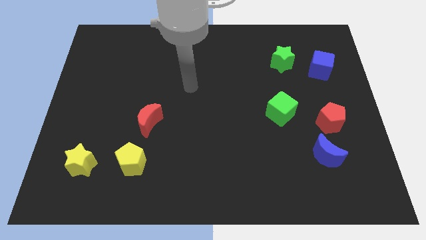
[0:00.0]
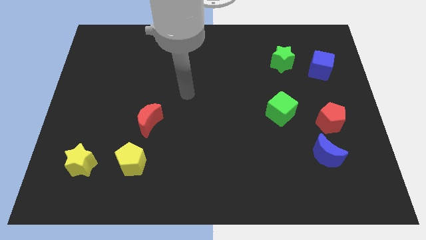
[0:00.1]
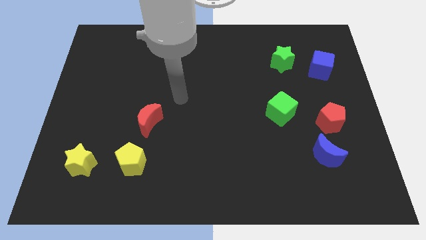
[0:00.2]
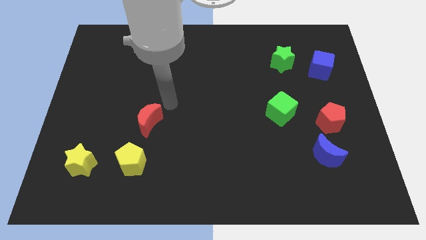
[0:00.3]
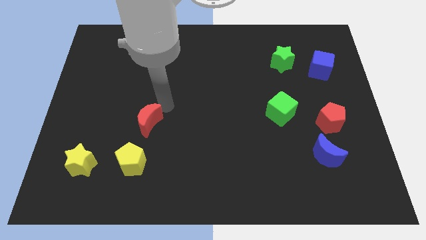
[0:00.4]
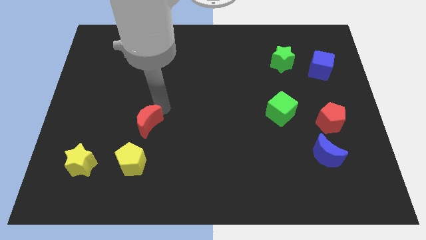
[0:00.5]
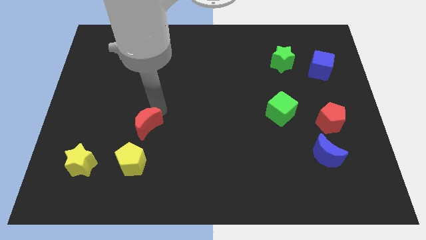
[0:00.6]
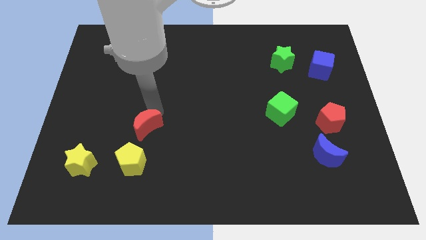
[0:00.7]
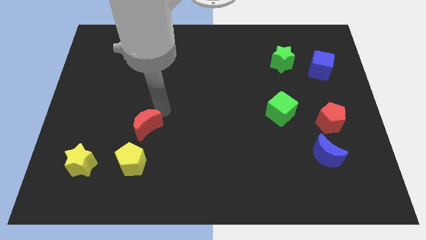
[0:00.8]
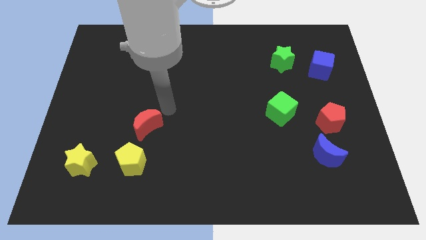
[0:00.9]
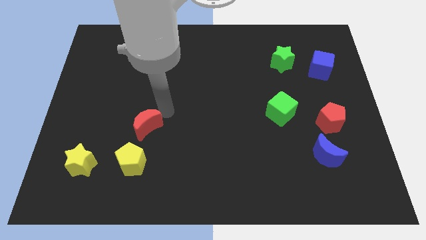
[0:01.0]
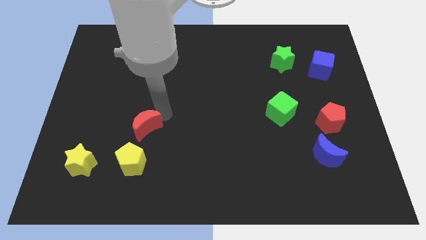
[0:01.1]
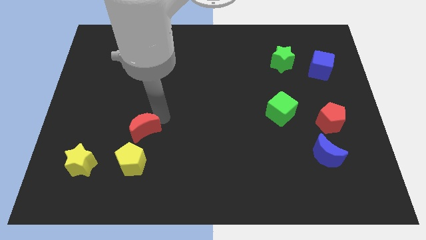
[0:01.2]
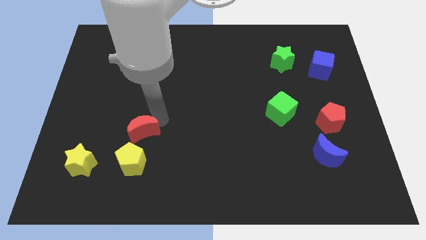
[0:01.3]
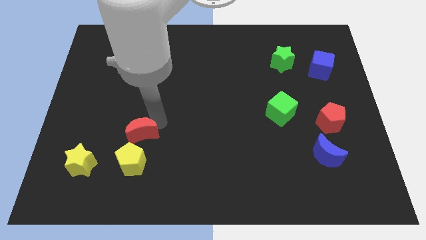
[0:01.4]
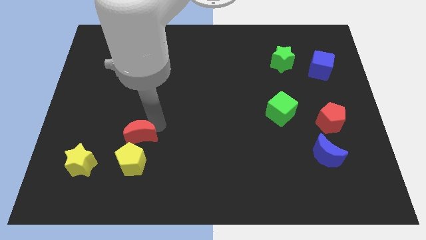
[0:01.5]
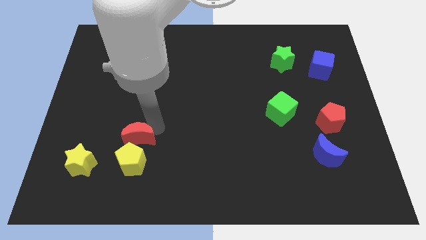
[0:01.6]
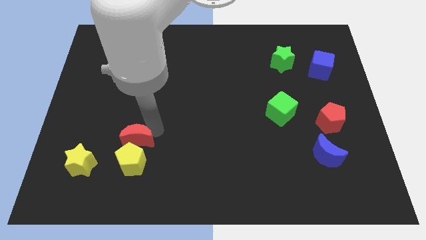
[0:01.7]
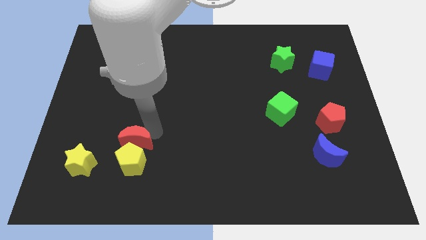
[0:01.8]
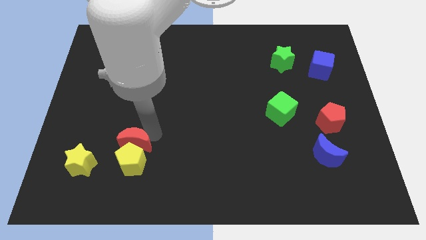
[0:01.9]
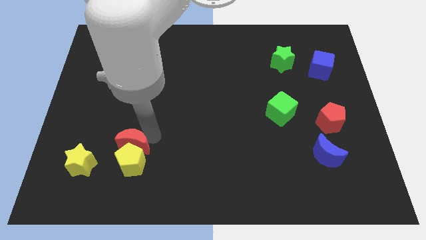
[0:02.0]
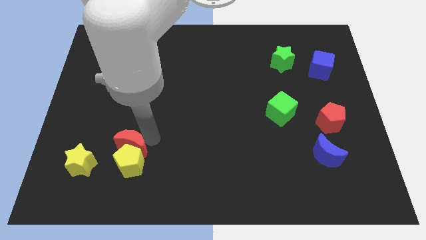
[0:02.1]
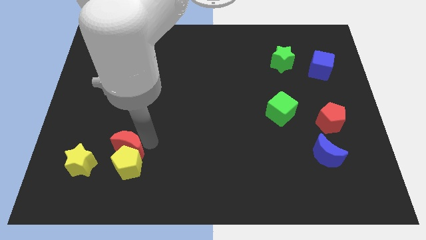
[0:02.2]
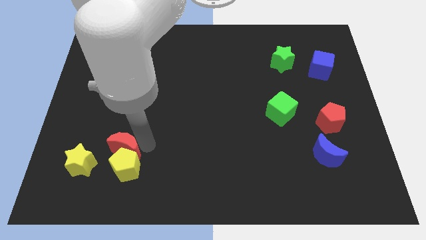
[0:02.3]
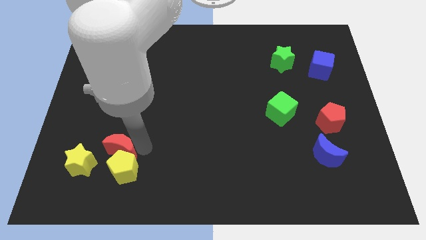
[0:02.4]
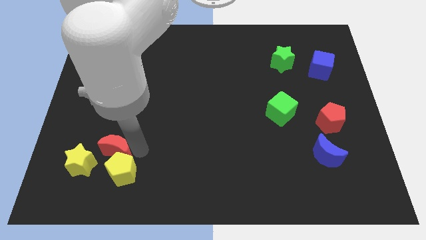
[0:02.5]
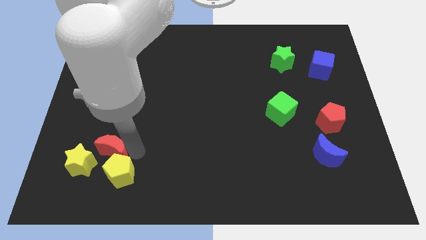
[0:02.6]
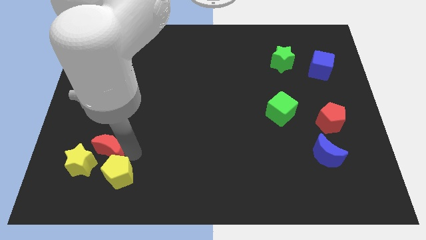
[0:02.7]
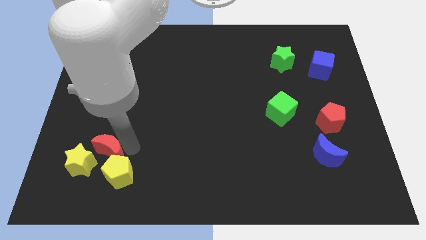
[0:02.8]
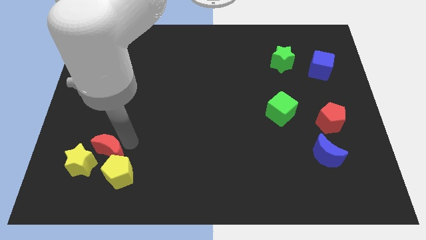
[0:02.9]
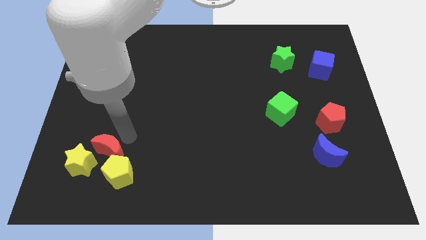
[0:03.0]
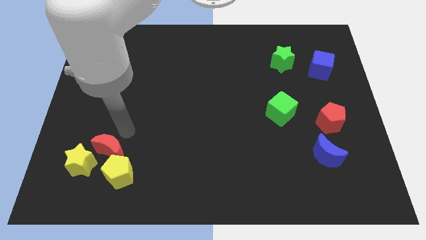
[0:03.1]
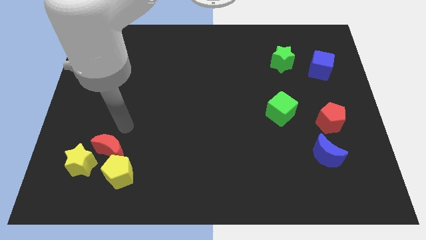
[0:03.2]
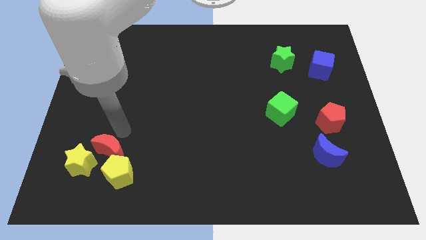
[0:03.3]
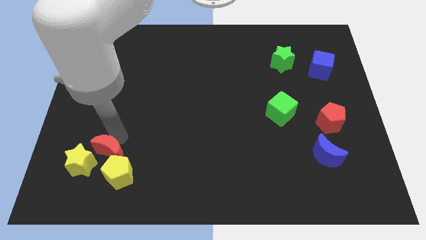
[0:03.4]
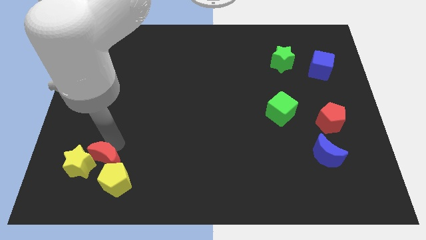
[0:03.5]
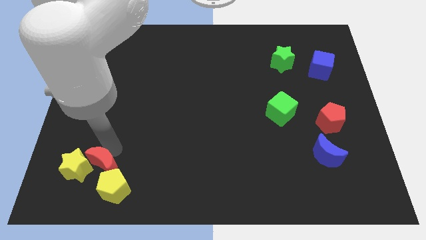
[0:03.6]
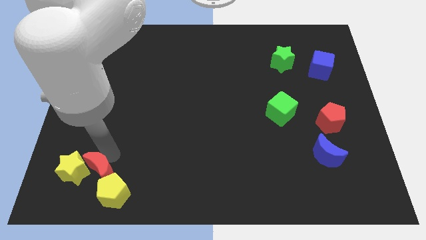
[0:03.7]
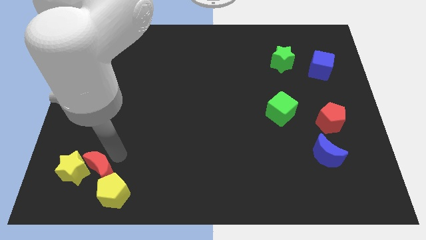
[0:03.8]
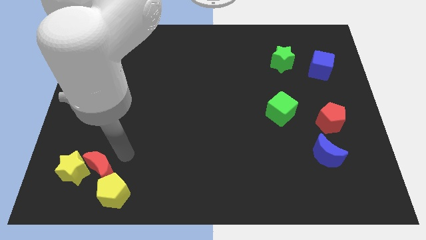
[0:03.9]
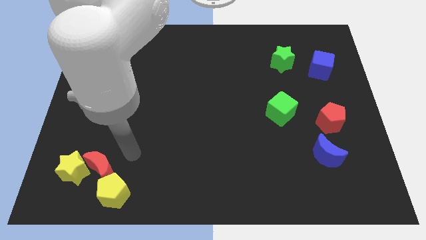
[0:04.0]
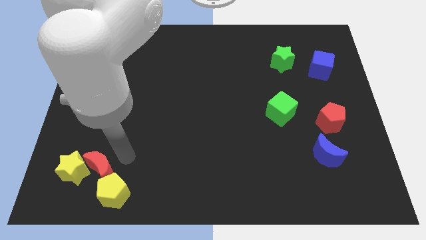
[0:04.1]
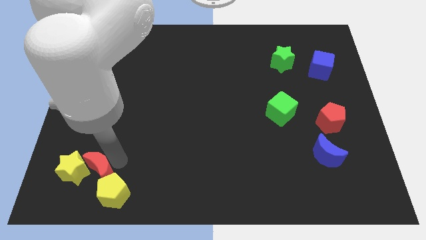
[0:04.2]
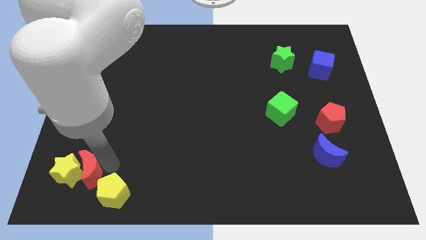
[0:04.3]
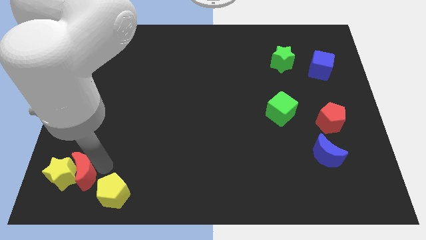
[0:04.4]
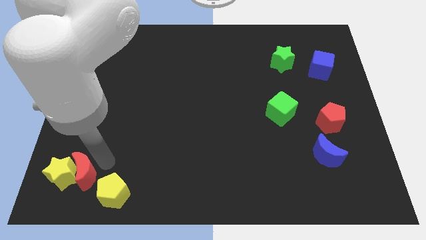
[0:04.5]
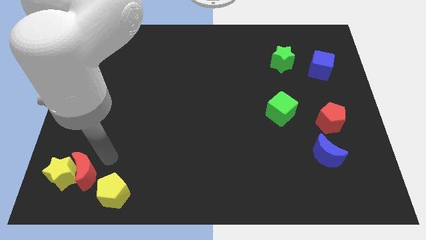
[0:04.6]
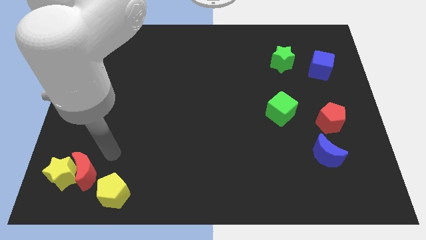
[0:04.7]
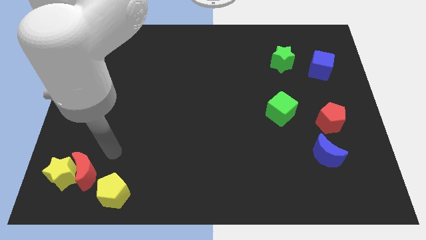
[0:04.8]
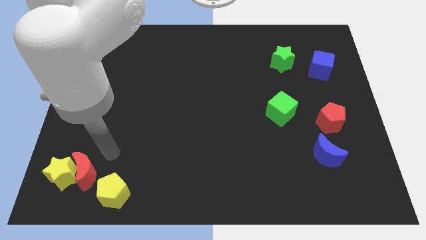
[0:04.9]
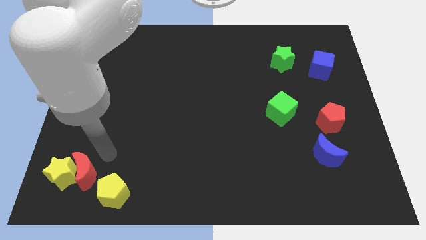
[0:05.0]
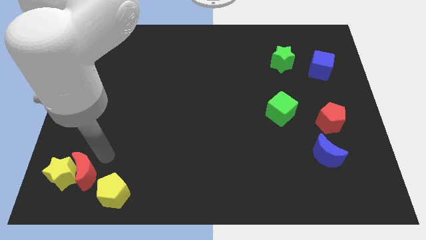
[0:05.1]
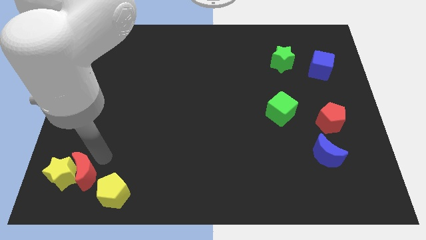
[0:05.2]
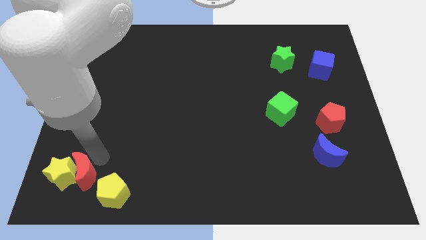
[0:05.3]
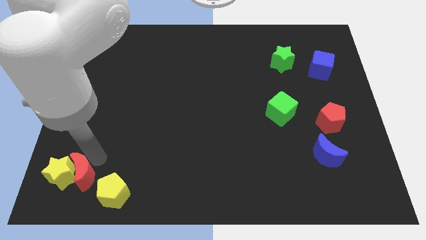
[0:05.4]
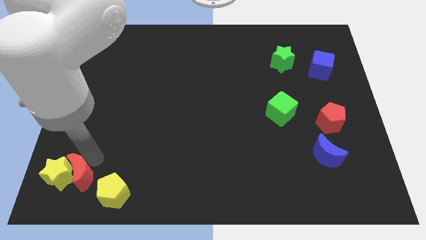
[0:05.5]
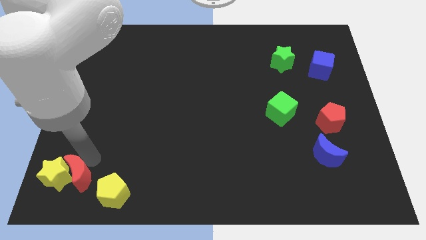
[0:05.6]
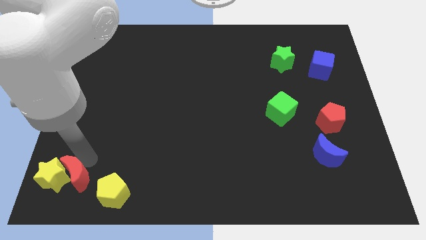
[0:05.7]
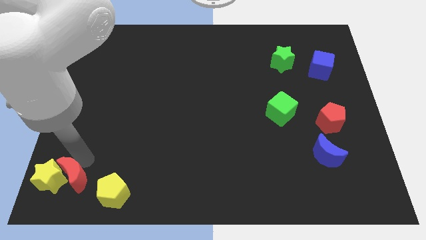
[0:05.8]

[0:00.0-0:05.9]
push the red moon to the bottom left

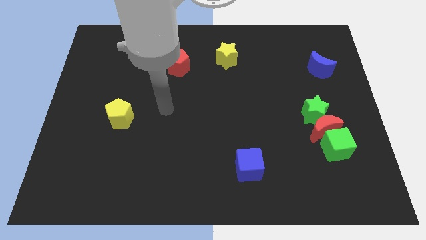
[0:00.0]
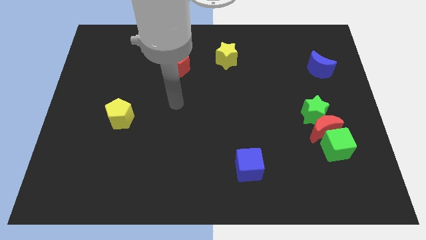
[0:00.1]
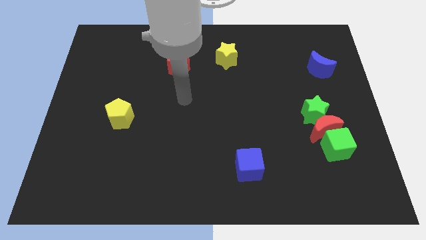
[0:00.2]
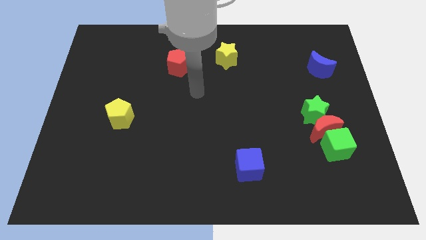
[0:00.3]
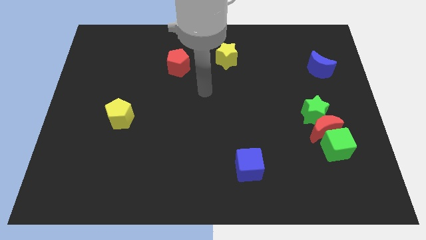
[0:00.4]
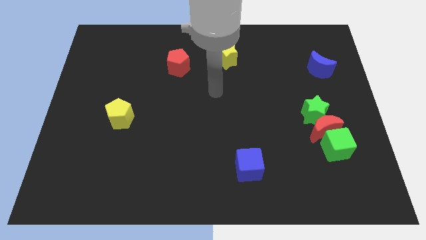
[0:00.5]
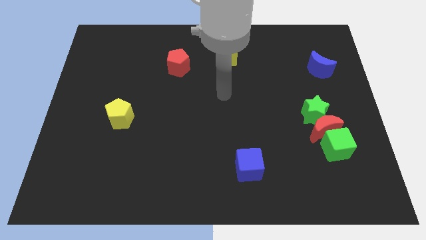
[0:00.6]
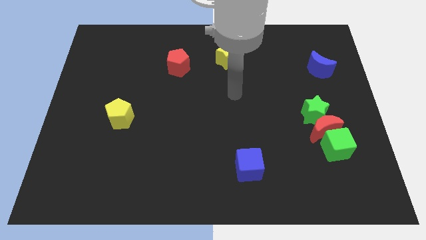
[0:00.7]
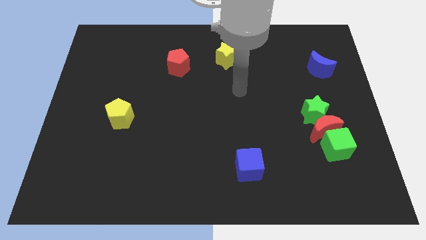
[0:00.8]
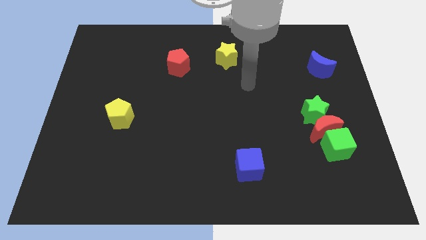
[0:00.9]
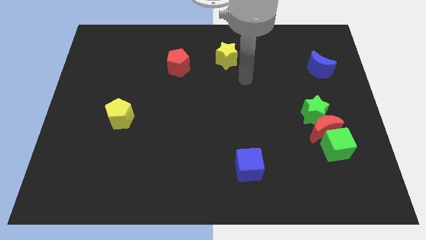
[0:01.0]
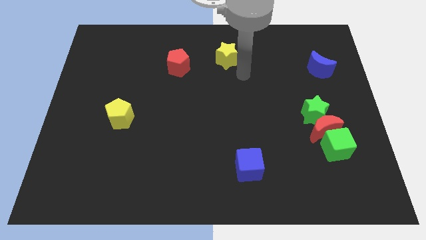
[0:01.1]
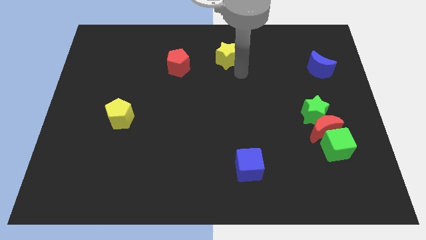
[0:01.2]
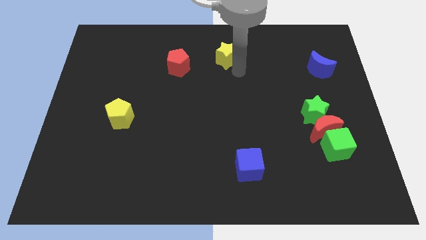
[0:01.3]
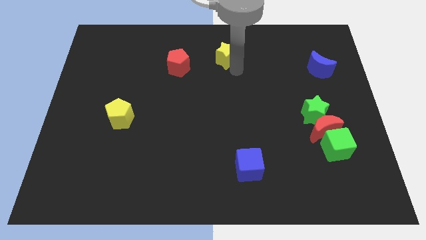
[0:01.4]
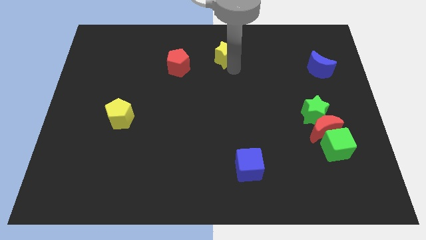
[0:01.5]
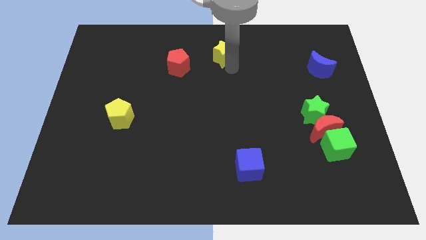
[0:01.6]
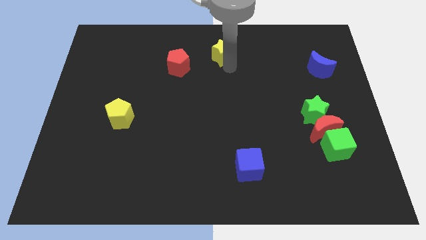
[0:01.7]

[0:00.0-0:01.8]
slide the yellow star to the top
